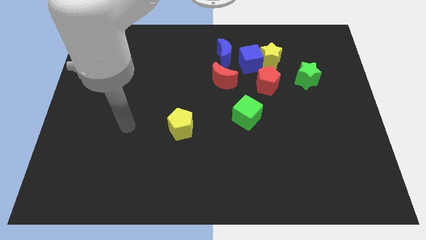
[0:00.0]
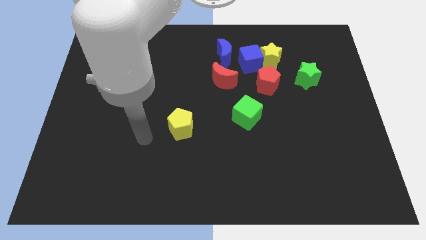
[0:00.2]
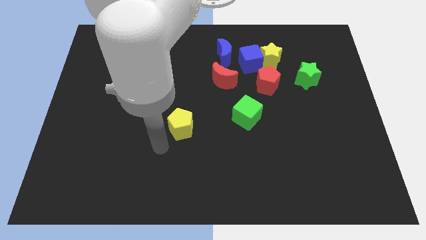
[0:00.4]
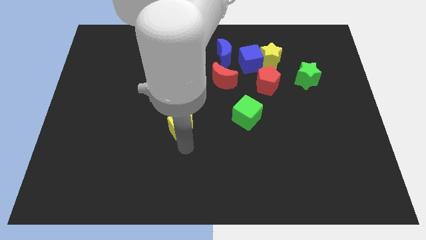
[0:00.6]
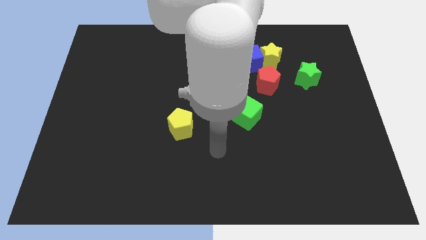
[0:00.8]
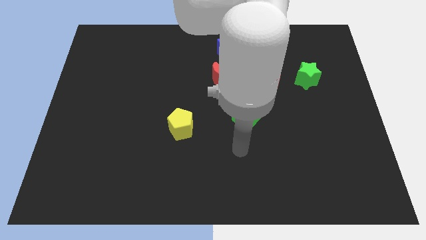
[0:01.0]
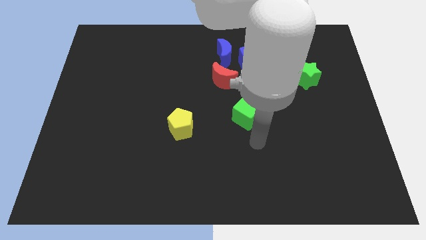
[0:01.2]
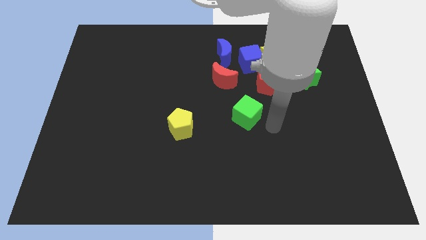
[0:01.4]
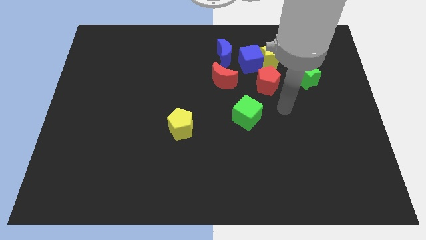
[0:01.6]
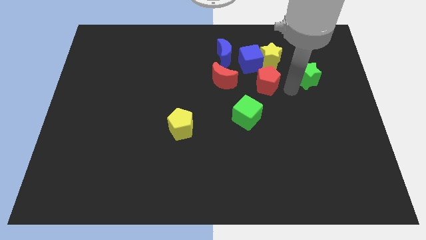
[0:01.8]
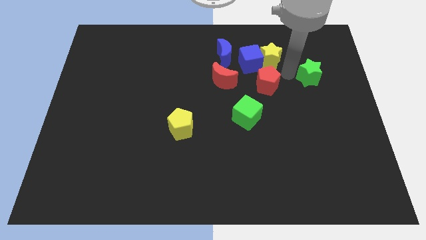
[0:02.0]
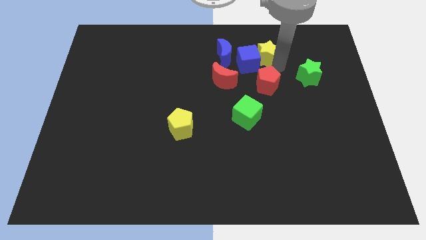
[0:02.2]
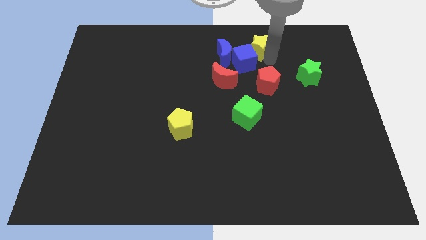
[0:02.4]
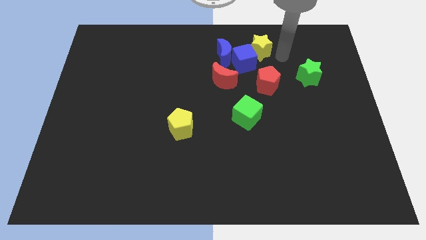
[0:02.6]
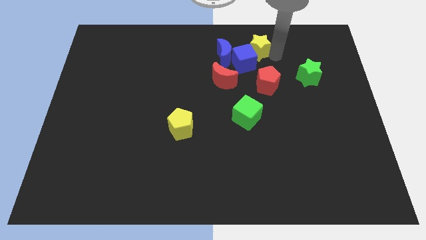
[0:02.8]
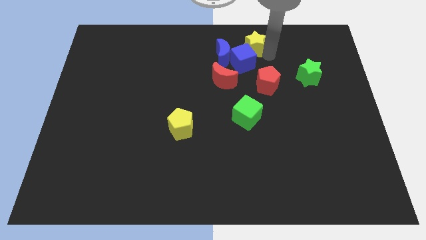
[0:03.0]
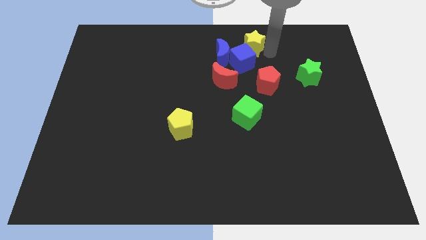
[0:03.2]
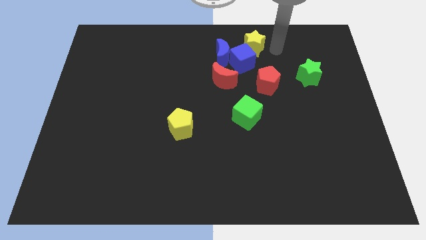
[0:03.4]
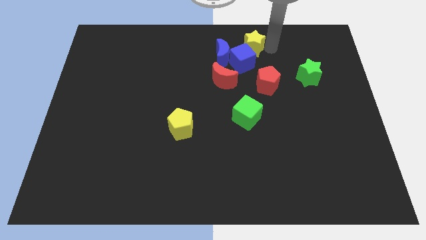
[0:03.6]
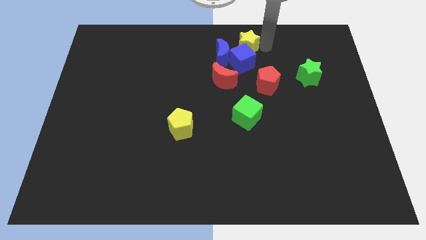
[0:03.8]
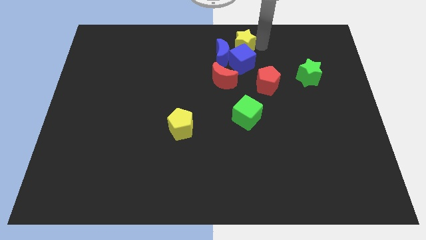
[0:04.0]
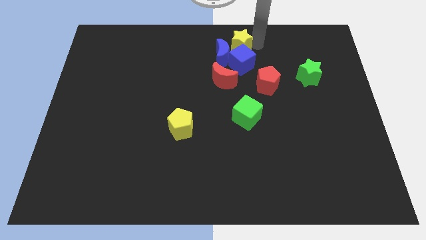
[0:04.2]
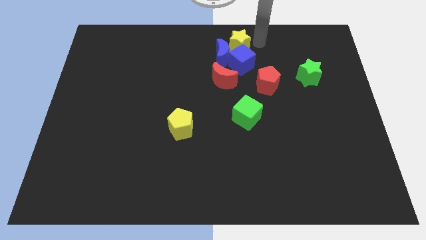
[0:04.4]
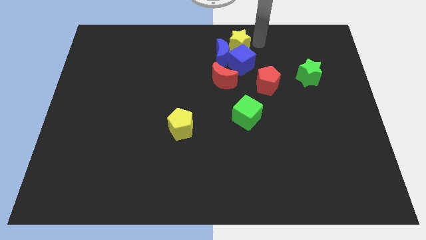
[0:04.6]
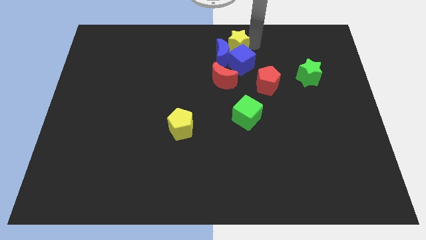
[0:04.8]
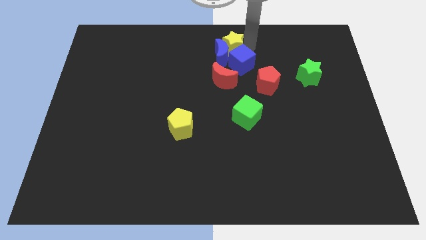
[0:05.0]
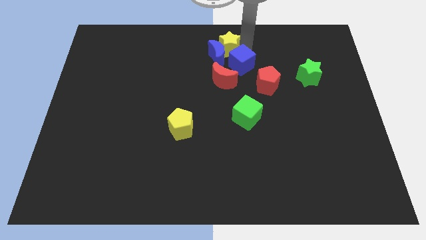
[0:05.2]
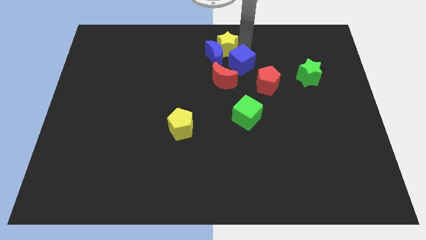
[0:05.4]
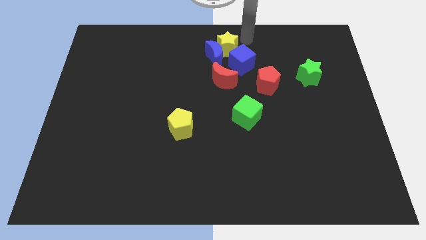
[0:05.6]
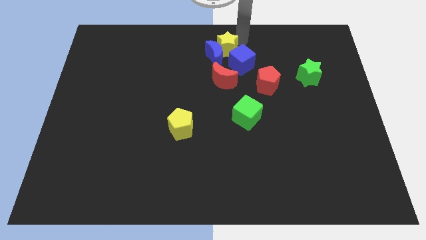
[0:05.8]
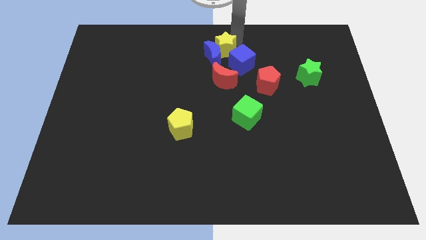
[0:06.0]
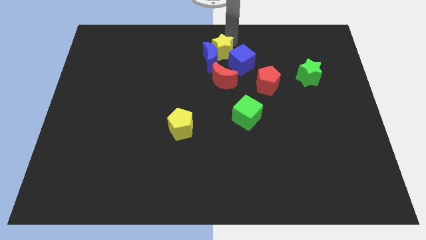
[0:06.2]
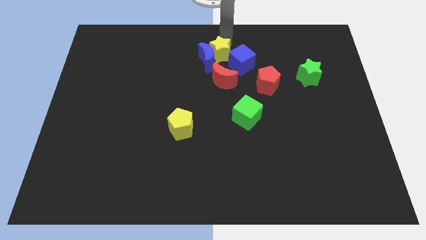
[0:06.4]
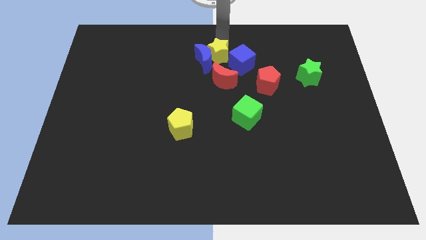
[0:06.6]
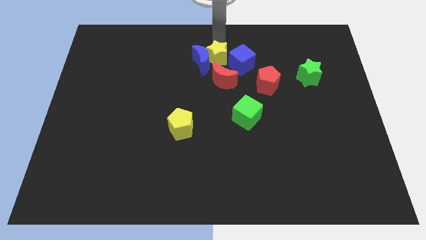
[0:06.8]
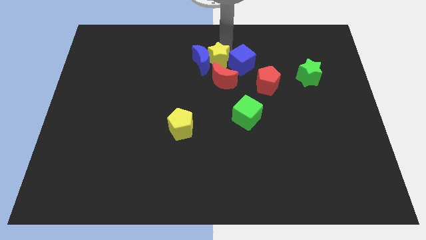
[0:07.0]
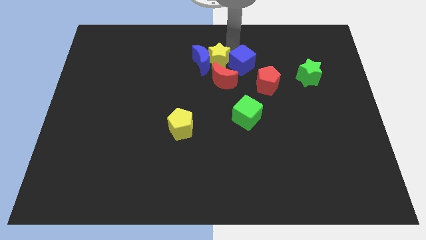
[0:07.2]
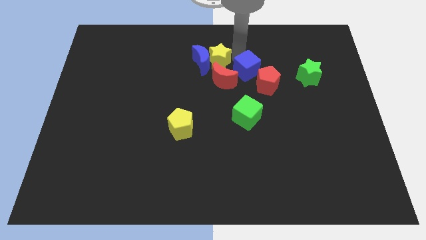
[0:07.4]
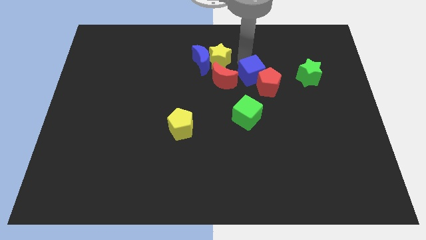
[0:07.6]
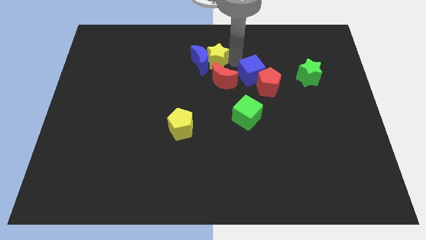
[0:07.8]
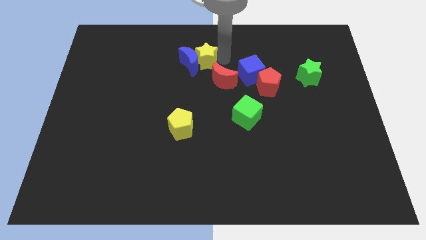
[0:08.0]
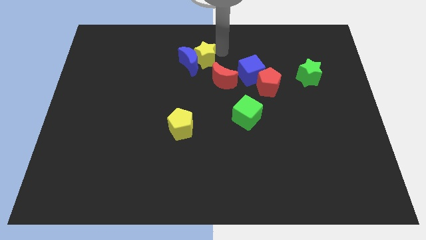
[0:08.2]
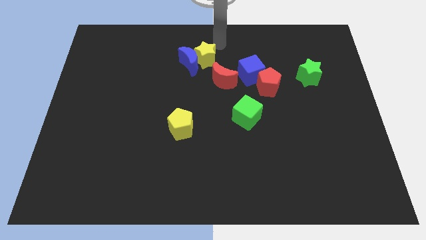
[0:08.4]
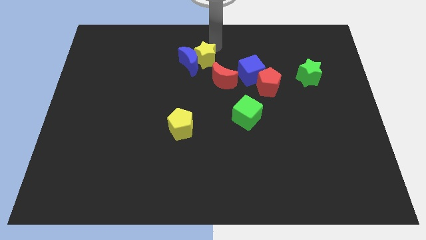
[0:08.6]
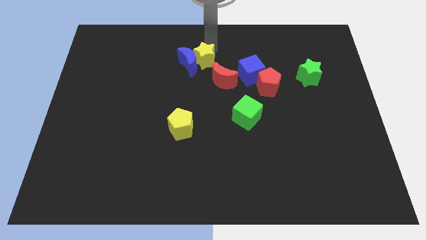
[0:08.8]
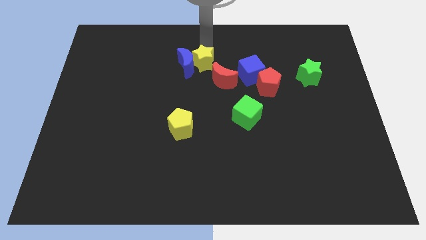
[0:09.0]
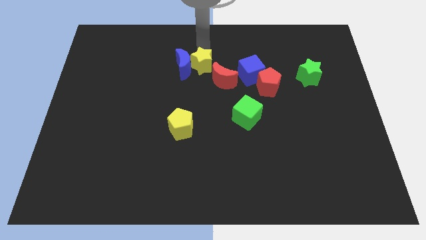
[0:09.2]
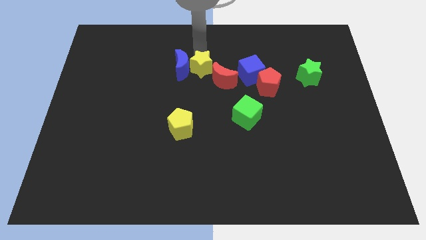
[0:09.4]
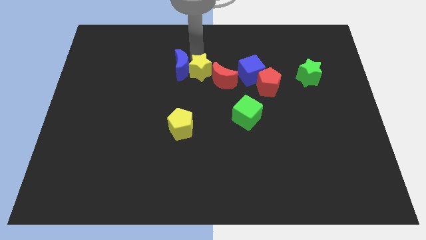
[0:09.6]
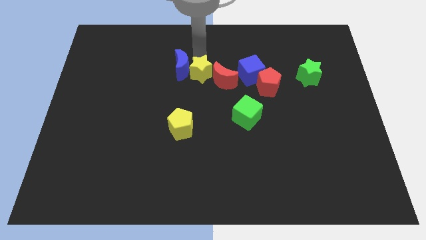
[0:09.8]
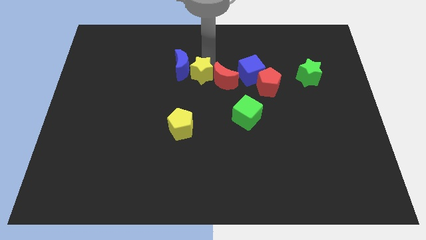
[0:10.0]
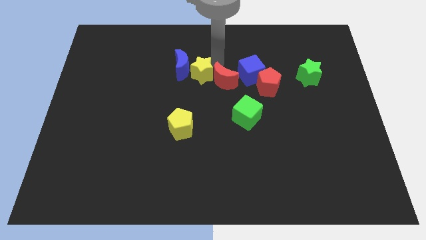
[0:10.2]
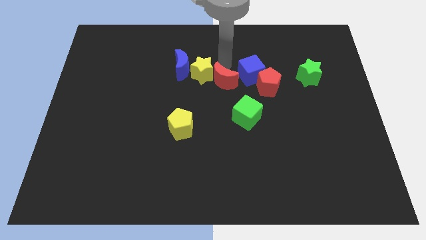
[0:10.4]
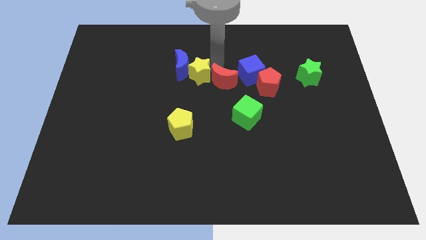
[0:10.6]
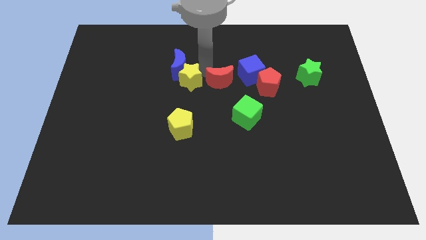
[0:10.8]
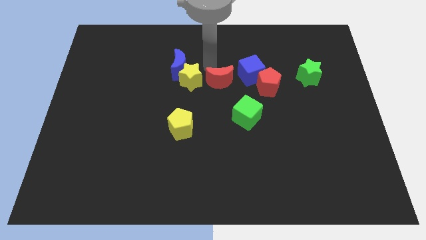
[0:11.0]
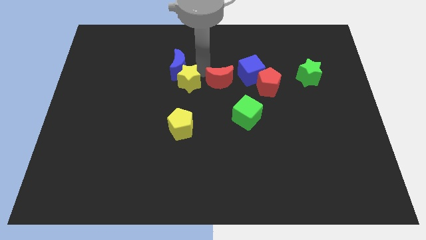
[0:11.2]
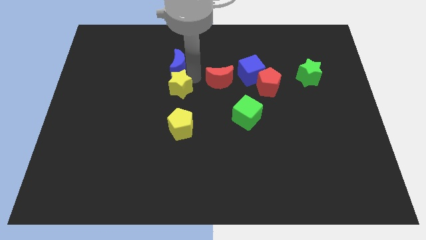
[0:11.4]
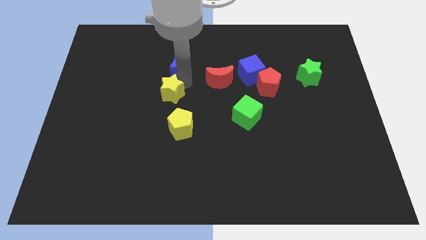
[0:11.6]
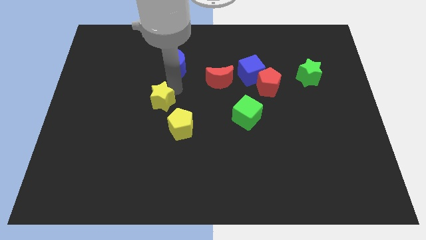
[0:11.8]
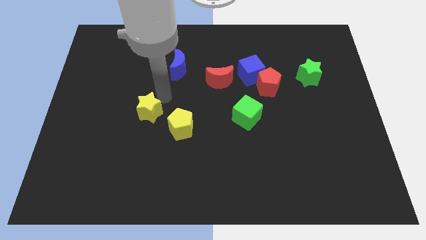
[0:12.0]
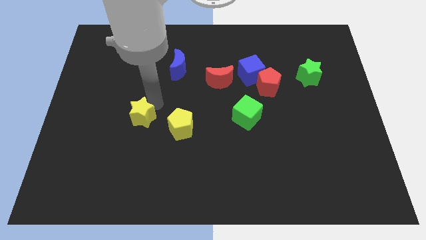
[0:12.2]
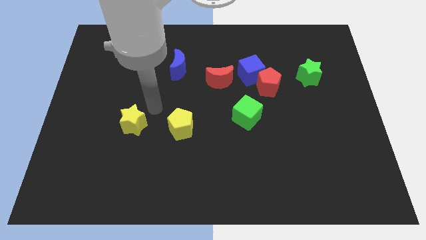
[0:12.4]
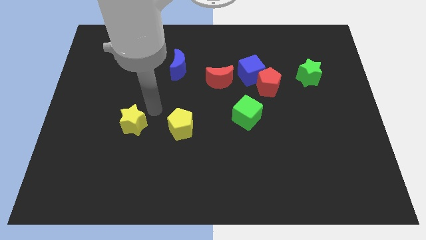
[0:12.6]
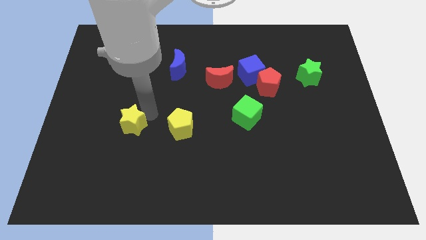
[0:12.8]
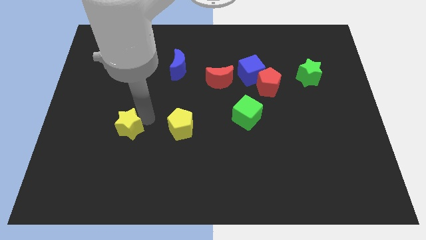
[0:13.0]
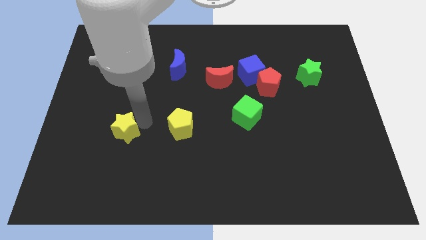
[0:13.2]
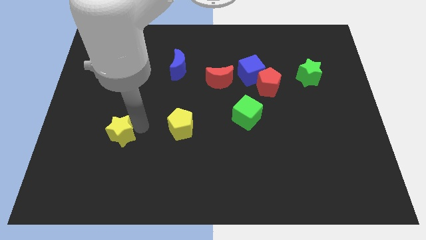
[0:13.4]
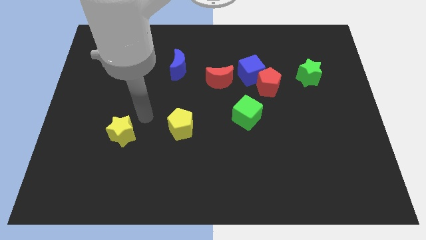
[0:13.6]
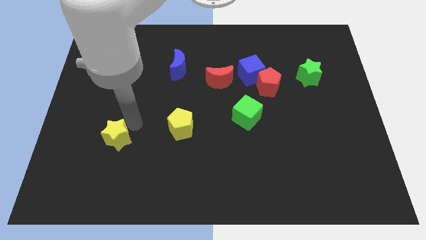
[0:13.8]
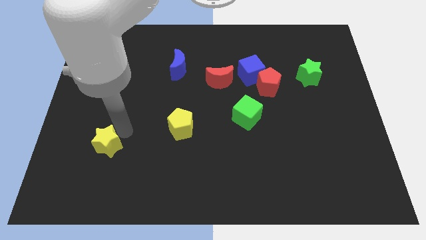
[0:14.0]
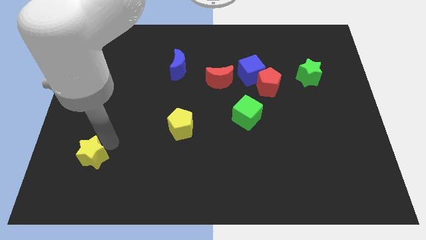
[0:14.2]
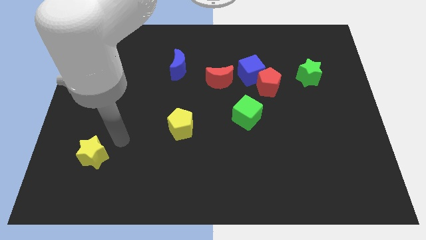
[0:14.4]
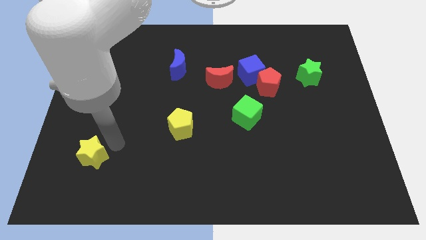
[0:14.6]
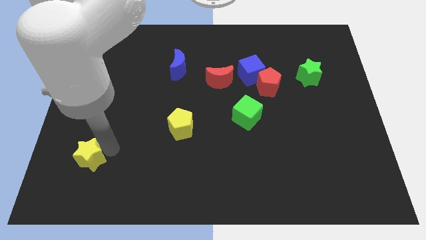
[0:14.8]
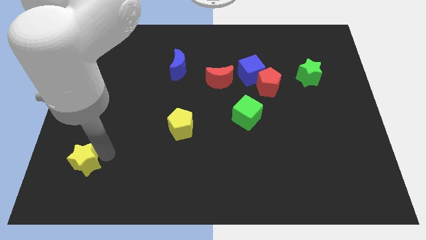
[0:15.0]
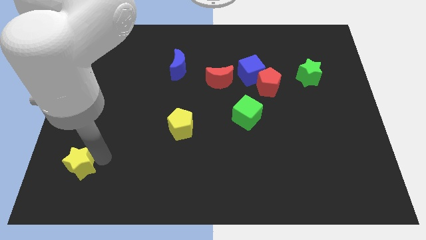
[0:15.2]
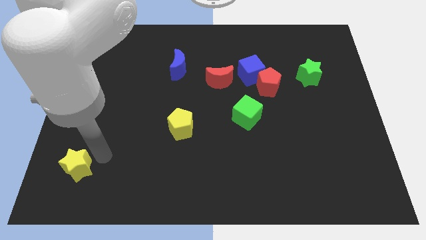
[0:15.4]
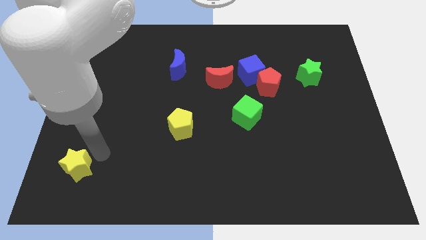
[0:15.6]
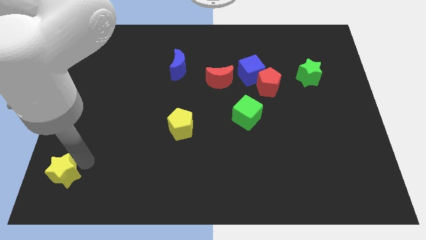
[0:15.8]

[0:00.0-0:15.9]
put the yellow star to the lower left corner
